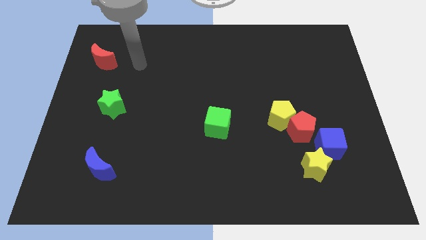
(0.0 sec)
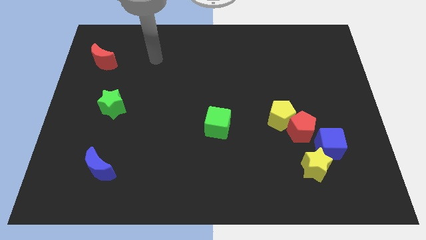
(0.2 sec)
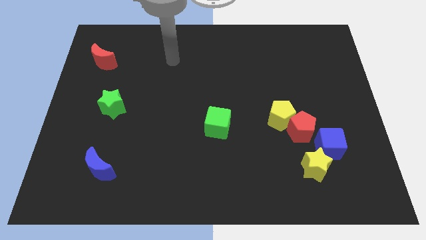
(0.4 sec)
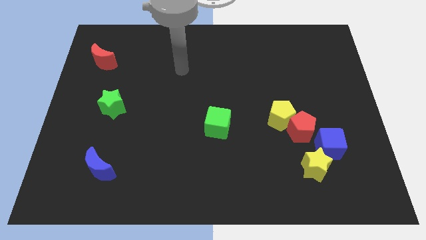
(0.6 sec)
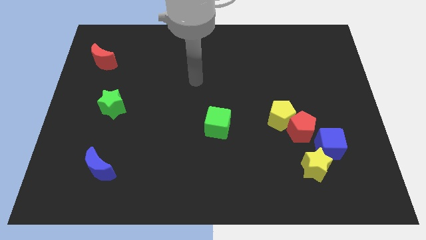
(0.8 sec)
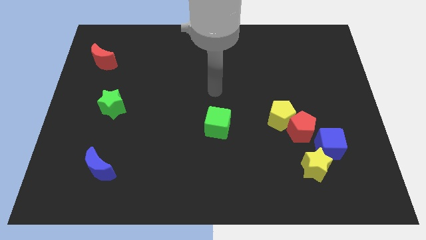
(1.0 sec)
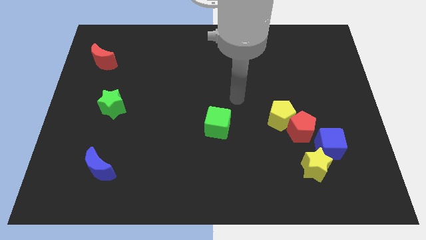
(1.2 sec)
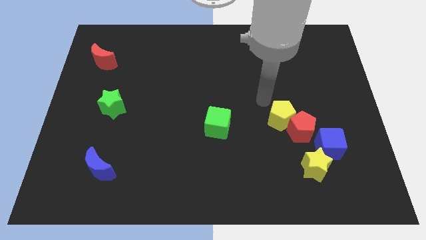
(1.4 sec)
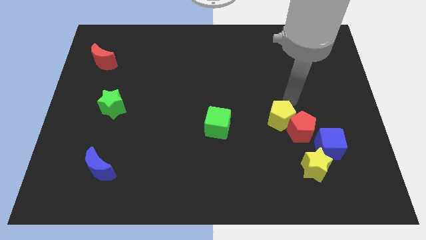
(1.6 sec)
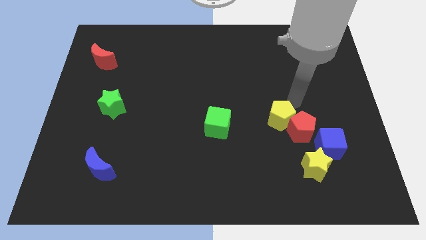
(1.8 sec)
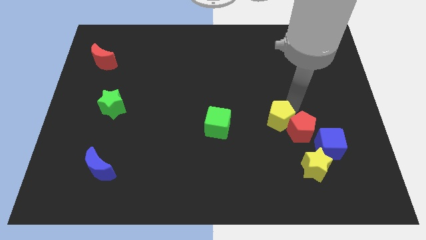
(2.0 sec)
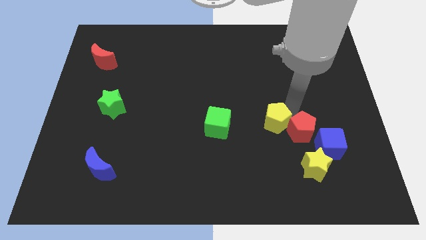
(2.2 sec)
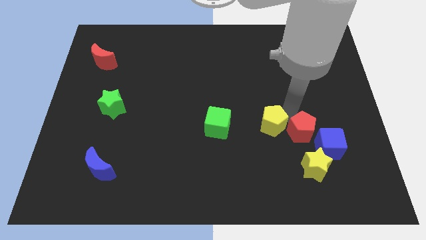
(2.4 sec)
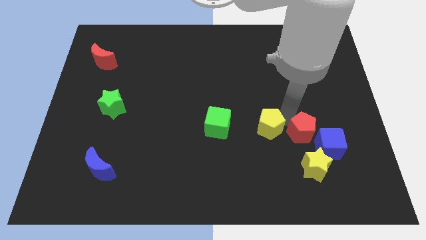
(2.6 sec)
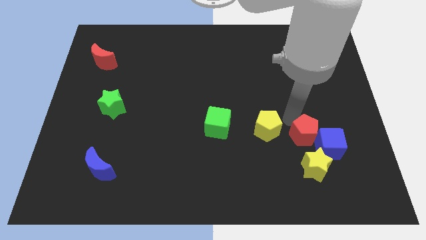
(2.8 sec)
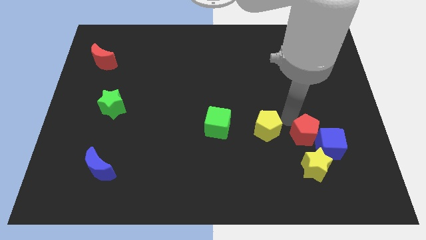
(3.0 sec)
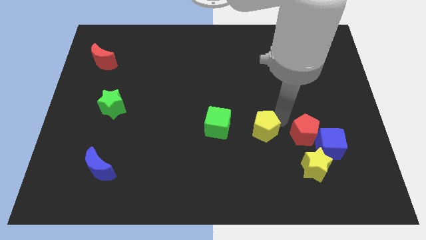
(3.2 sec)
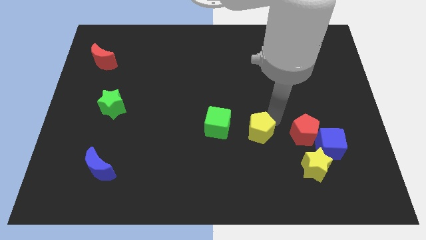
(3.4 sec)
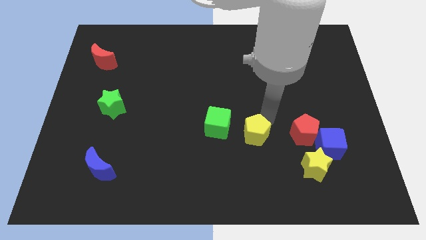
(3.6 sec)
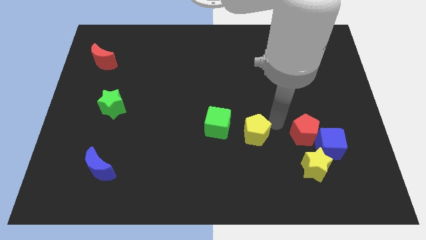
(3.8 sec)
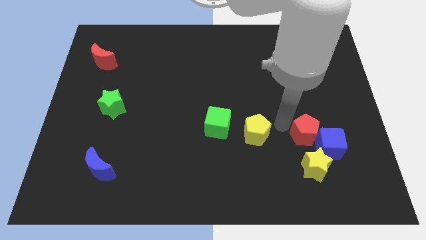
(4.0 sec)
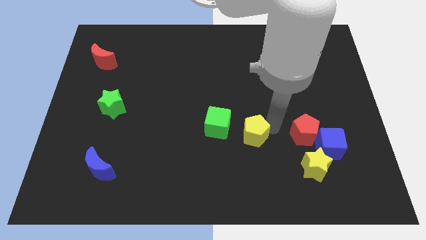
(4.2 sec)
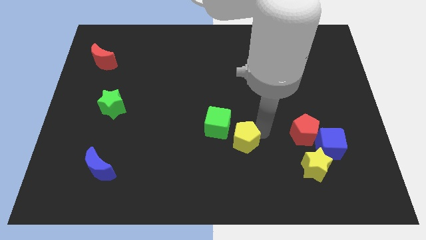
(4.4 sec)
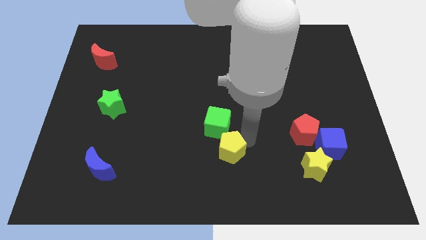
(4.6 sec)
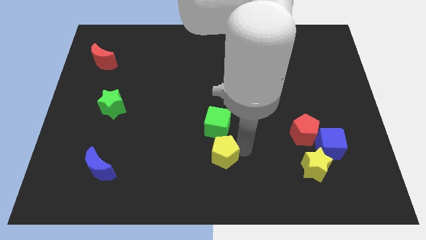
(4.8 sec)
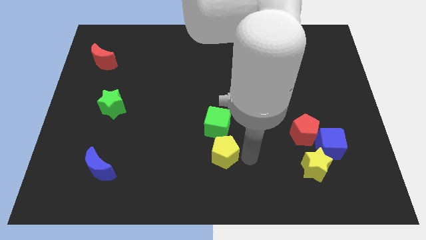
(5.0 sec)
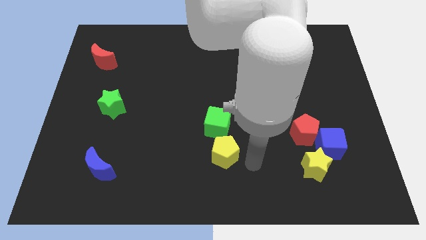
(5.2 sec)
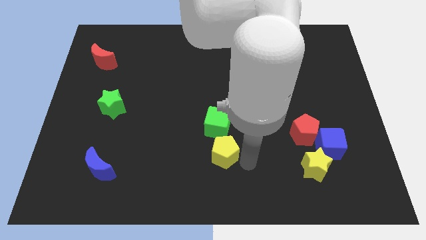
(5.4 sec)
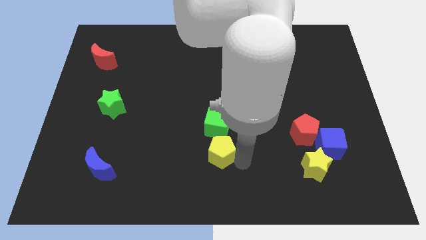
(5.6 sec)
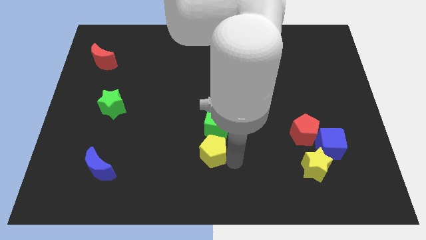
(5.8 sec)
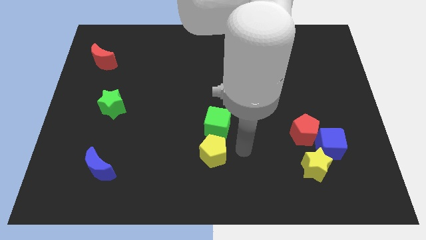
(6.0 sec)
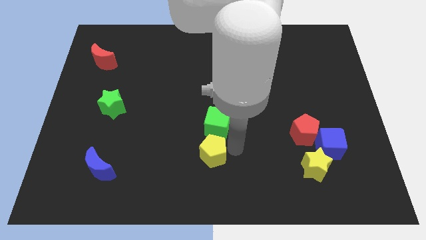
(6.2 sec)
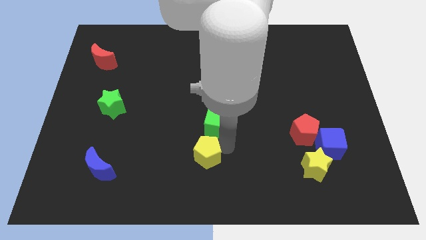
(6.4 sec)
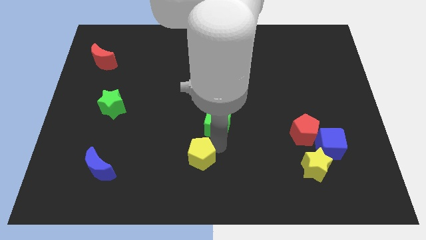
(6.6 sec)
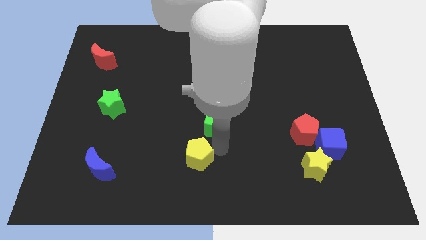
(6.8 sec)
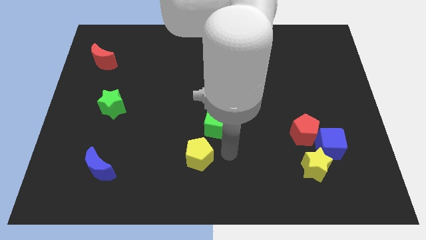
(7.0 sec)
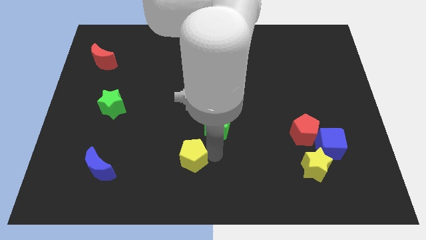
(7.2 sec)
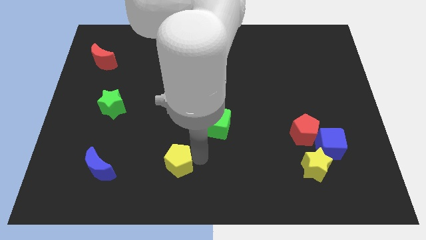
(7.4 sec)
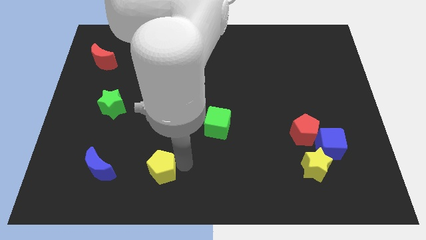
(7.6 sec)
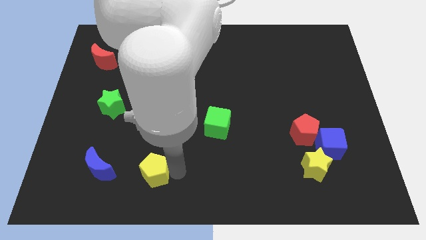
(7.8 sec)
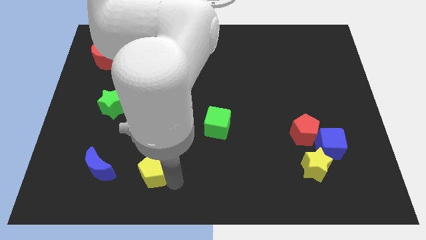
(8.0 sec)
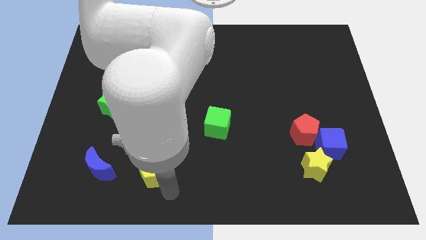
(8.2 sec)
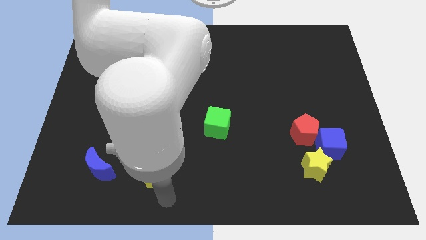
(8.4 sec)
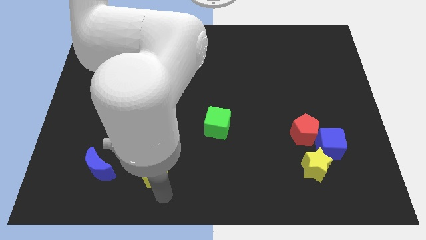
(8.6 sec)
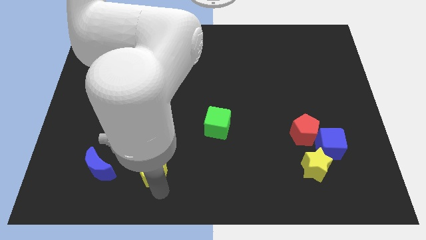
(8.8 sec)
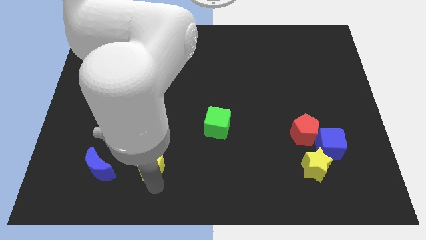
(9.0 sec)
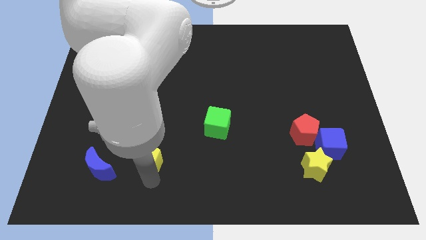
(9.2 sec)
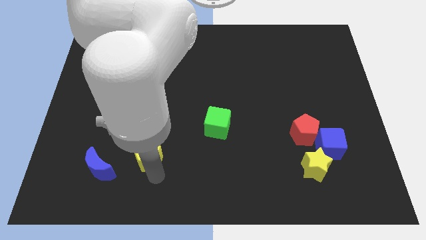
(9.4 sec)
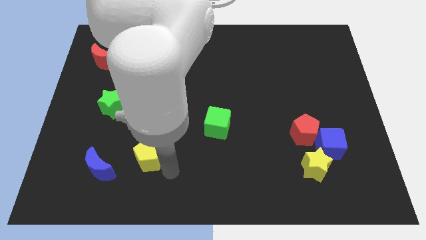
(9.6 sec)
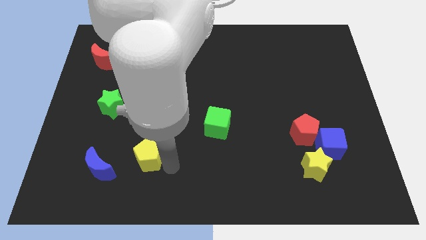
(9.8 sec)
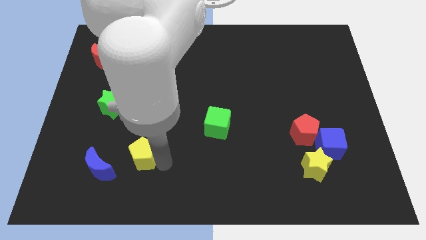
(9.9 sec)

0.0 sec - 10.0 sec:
slide the yellow pentagon to the top right of the blue moon

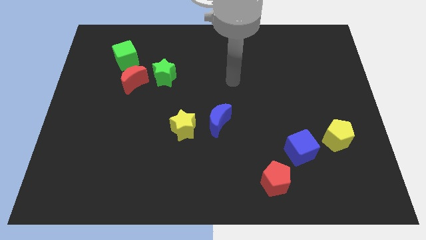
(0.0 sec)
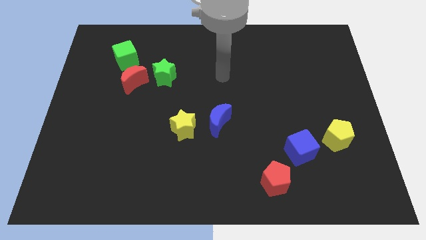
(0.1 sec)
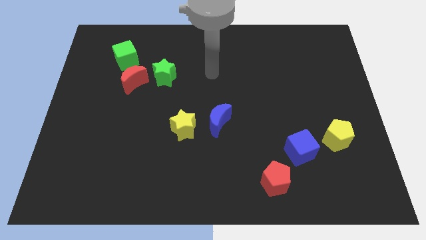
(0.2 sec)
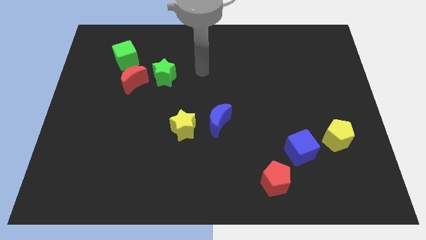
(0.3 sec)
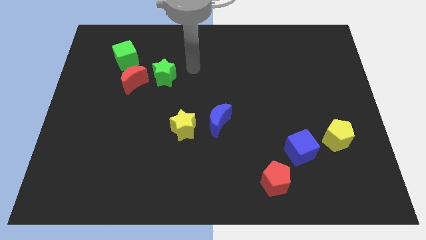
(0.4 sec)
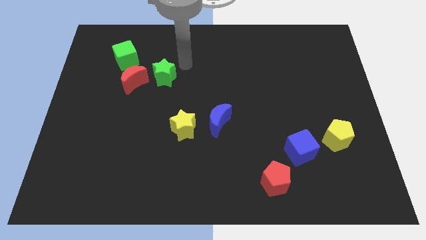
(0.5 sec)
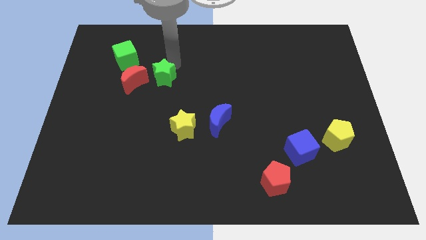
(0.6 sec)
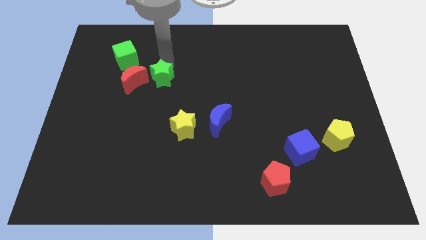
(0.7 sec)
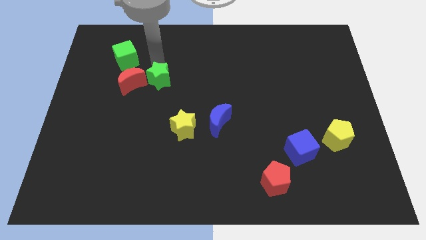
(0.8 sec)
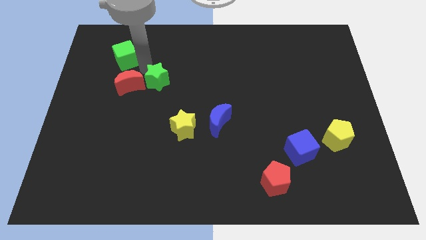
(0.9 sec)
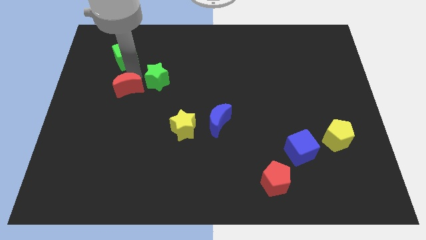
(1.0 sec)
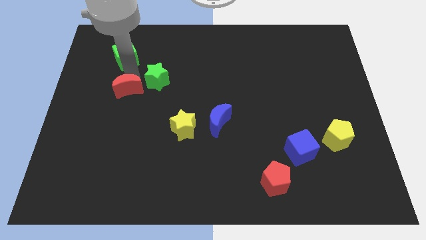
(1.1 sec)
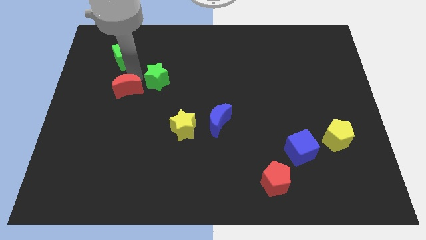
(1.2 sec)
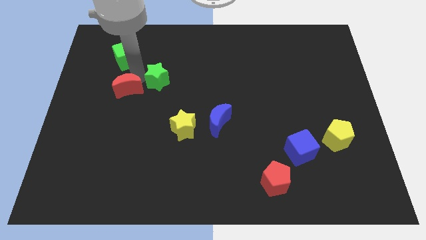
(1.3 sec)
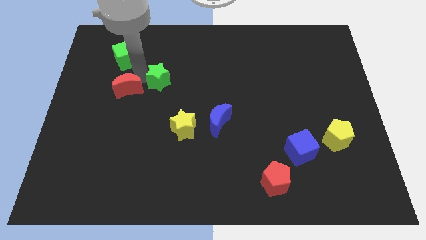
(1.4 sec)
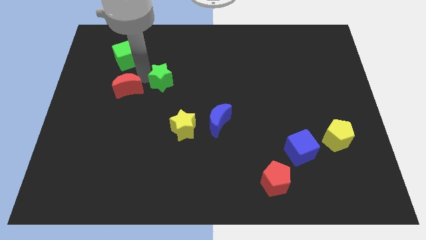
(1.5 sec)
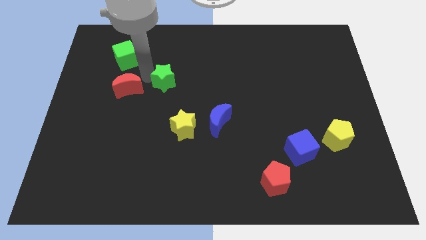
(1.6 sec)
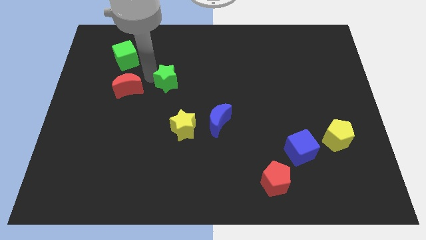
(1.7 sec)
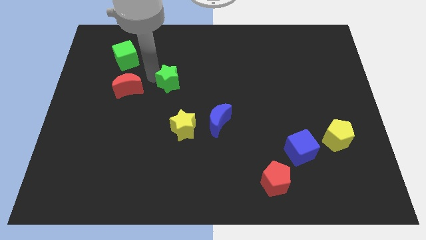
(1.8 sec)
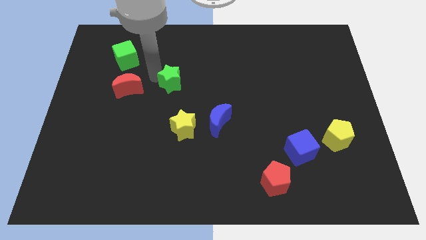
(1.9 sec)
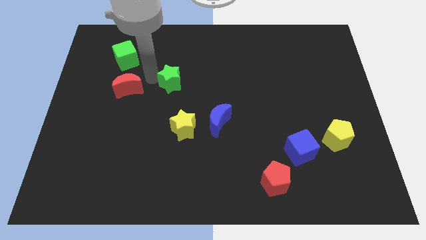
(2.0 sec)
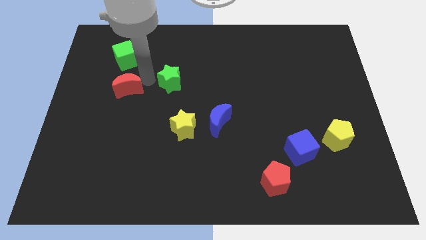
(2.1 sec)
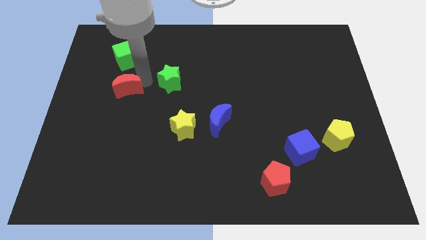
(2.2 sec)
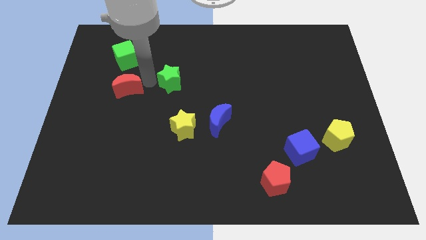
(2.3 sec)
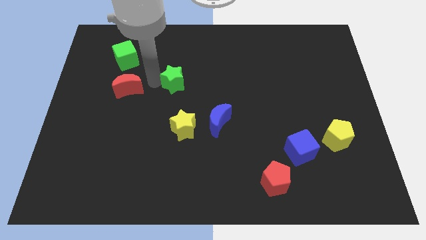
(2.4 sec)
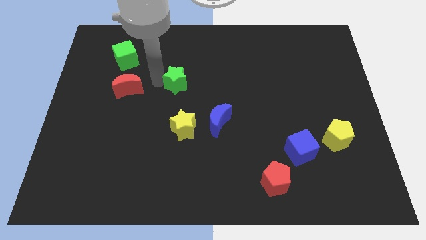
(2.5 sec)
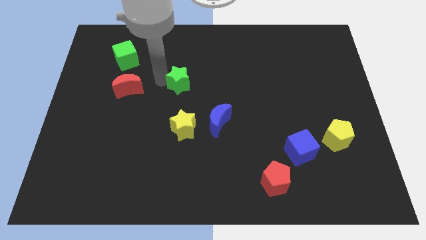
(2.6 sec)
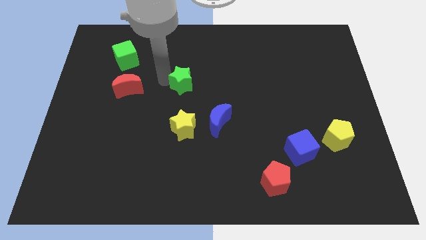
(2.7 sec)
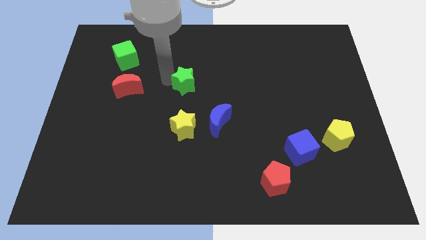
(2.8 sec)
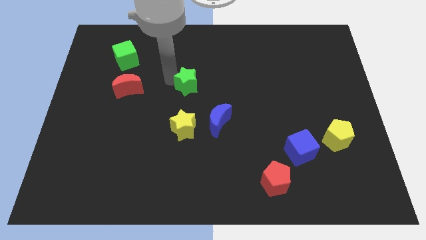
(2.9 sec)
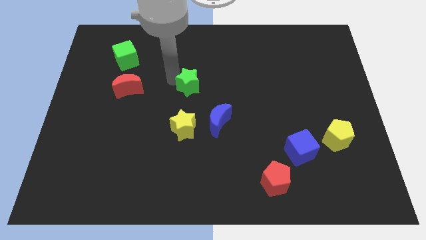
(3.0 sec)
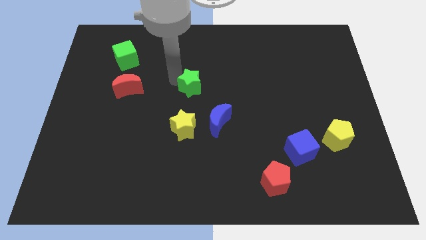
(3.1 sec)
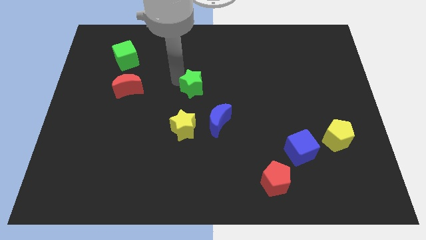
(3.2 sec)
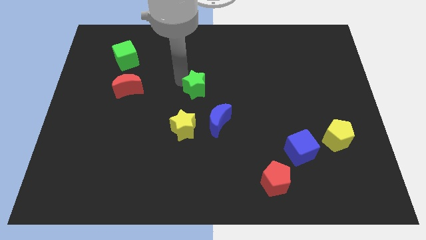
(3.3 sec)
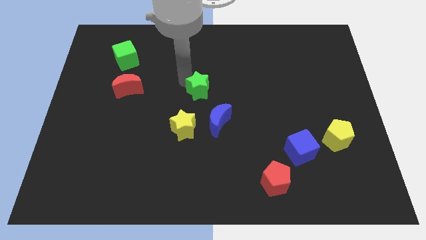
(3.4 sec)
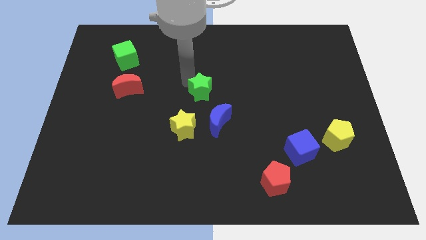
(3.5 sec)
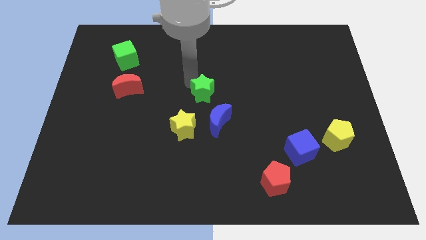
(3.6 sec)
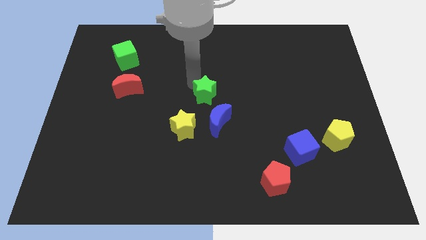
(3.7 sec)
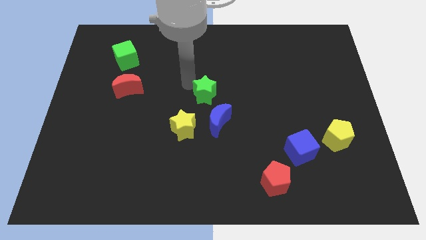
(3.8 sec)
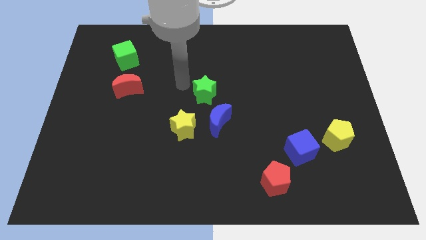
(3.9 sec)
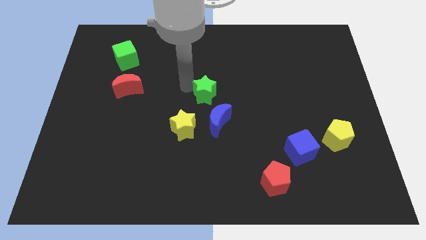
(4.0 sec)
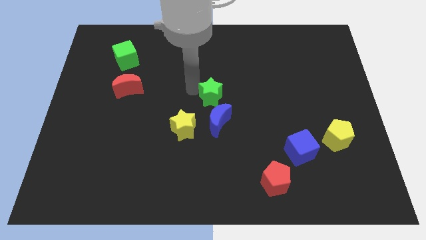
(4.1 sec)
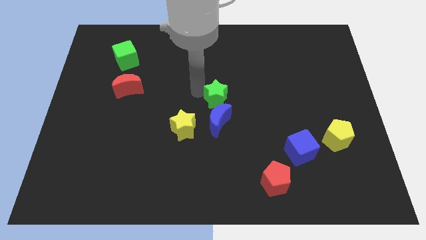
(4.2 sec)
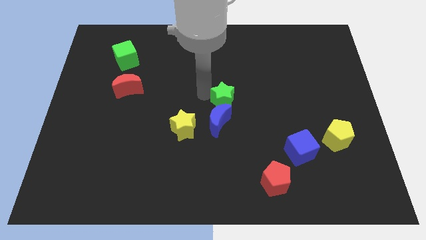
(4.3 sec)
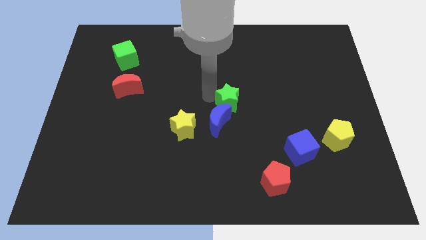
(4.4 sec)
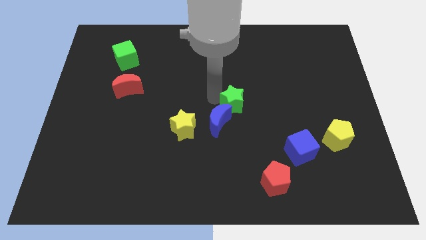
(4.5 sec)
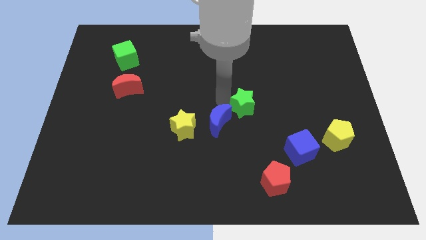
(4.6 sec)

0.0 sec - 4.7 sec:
push the green star to the right side of the blue moon
